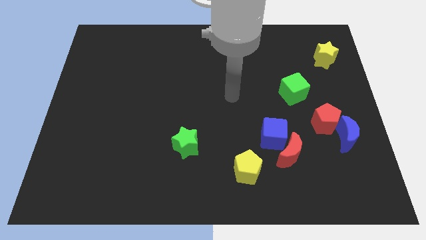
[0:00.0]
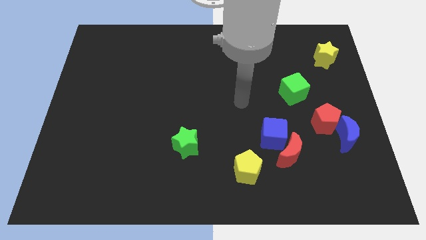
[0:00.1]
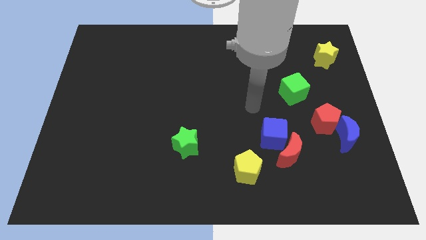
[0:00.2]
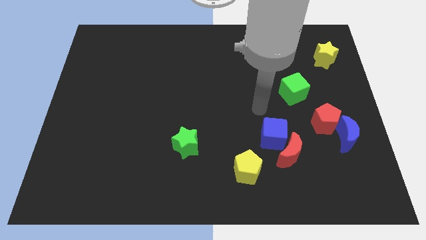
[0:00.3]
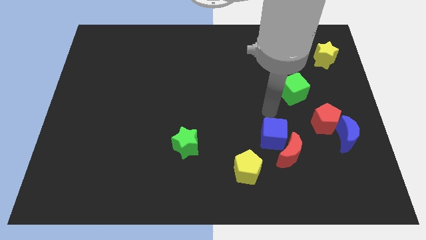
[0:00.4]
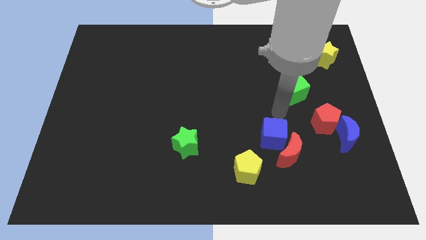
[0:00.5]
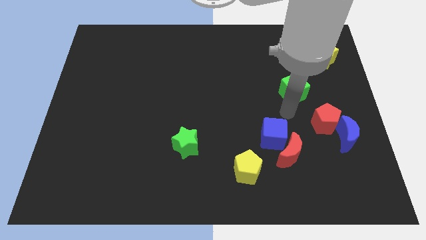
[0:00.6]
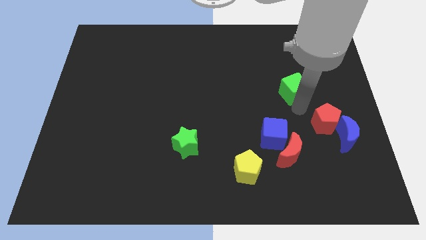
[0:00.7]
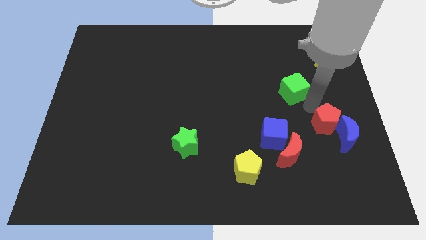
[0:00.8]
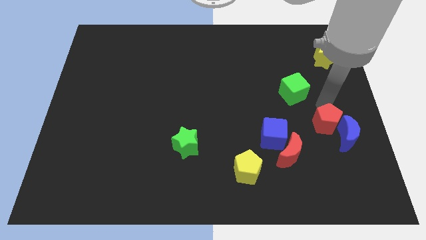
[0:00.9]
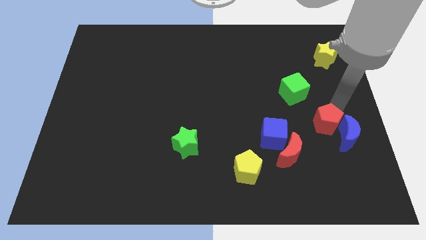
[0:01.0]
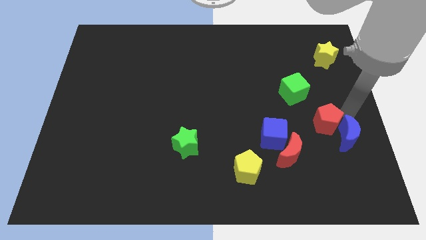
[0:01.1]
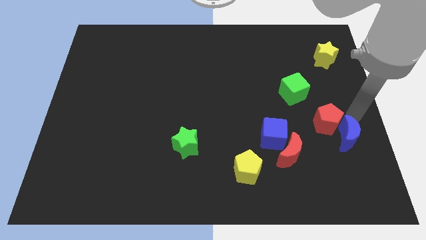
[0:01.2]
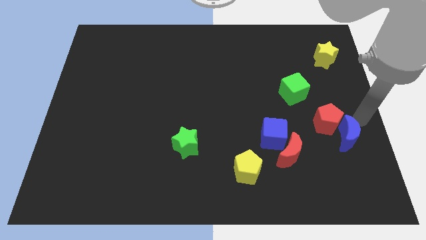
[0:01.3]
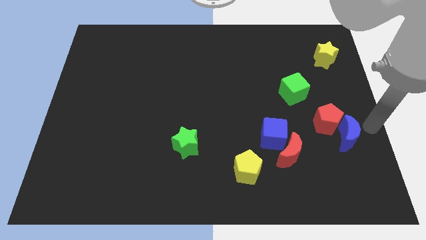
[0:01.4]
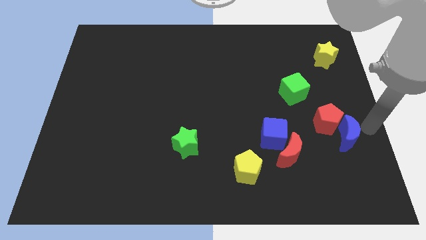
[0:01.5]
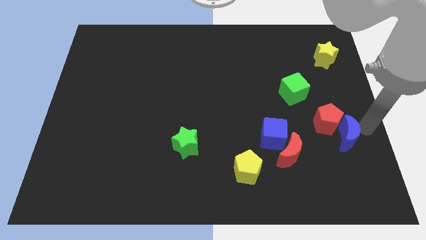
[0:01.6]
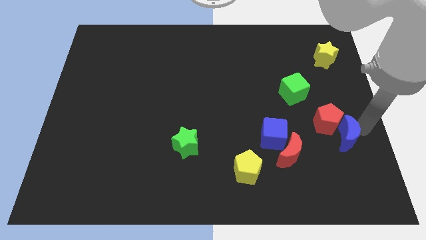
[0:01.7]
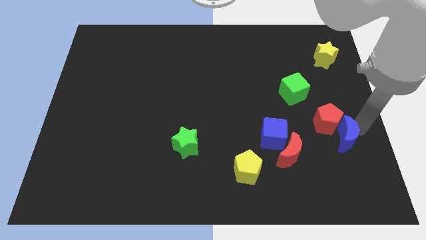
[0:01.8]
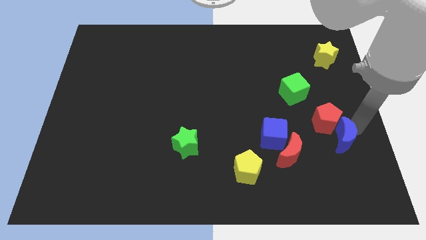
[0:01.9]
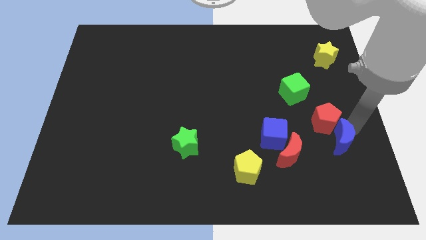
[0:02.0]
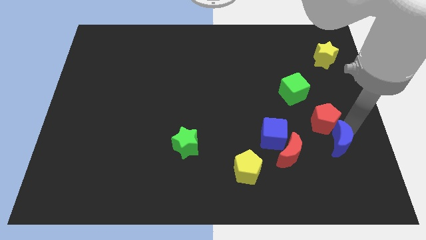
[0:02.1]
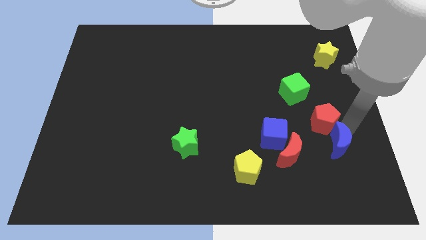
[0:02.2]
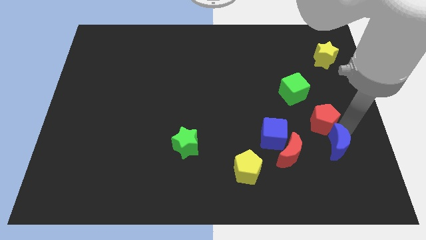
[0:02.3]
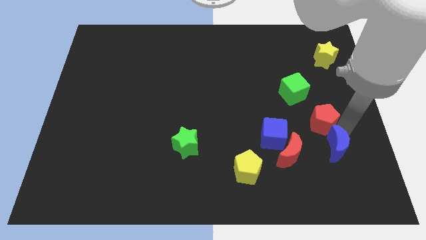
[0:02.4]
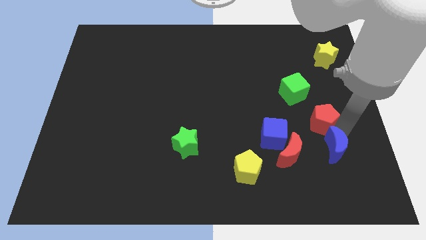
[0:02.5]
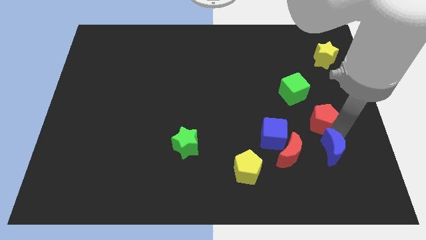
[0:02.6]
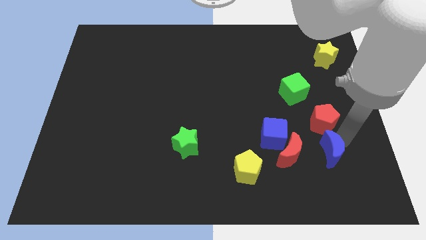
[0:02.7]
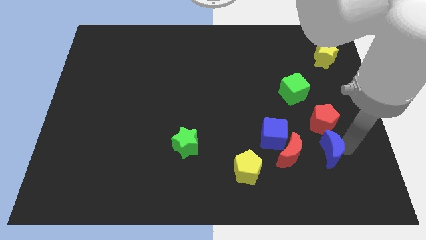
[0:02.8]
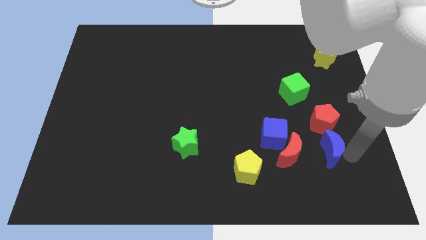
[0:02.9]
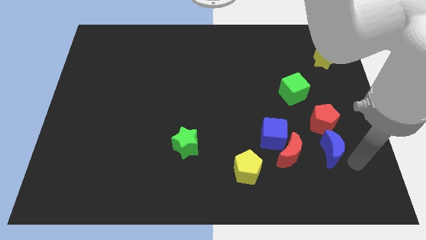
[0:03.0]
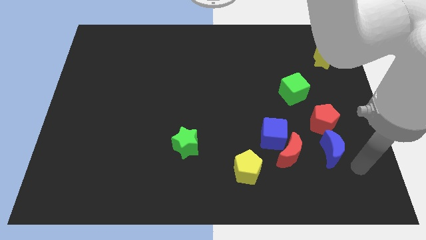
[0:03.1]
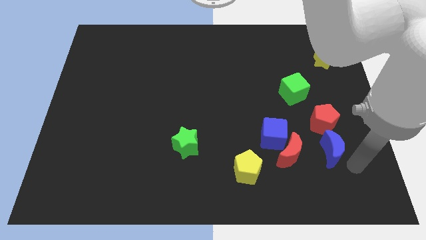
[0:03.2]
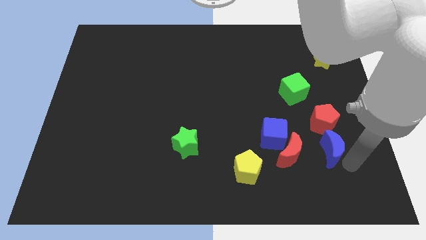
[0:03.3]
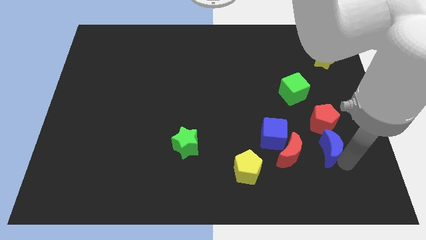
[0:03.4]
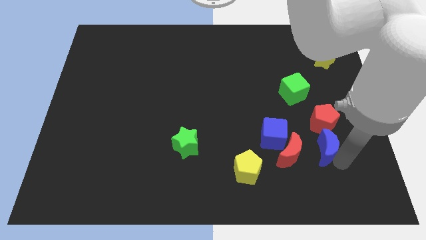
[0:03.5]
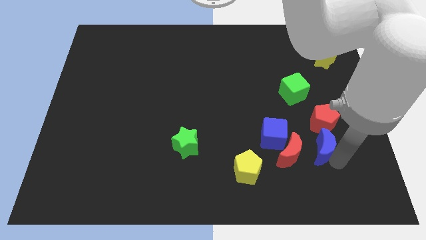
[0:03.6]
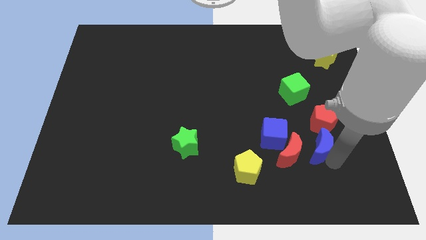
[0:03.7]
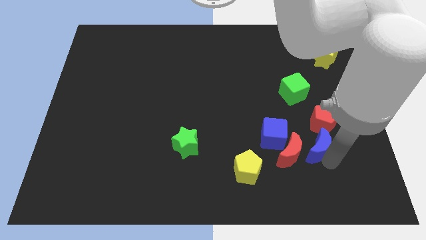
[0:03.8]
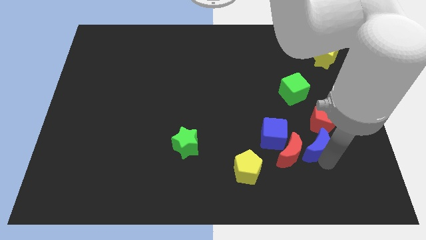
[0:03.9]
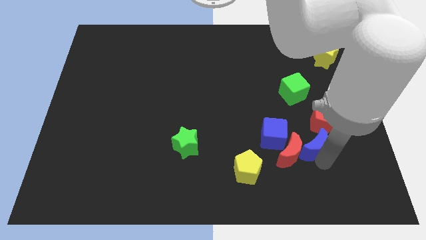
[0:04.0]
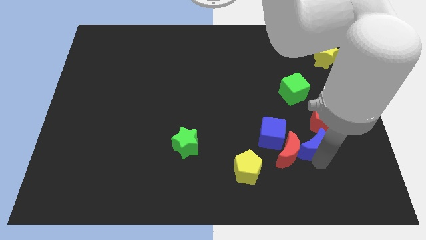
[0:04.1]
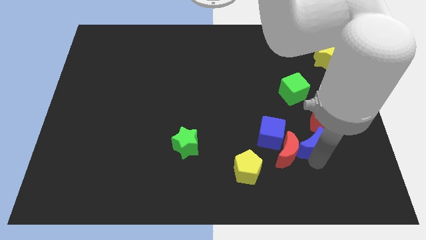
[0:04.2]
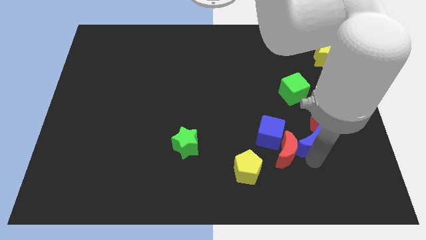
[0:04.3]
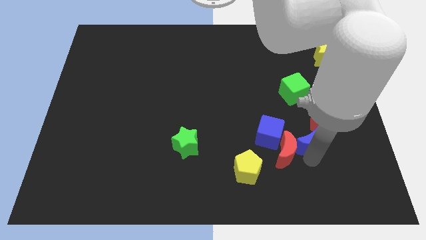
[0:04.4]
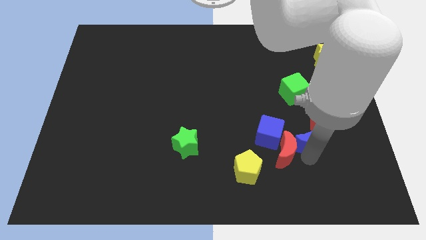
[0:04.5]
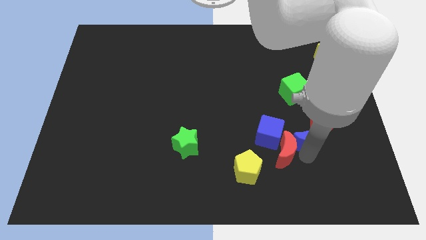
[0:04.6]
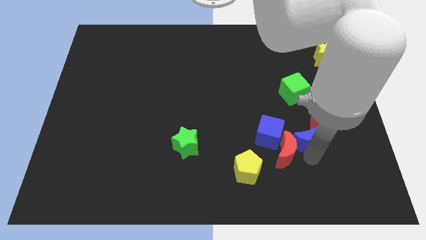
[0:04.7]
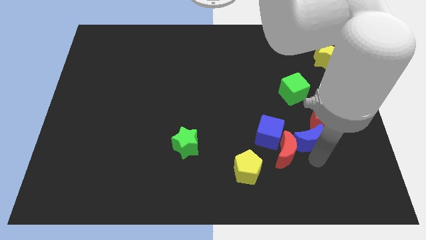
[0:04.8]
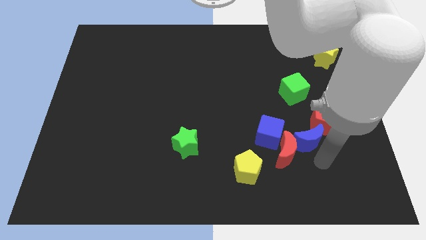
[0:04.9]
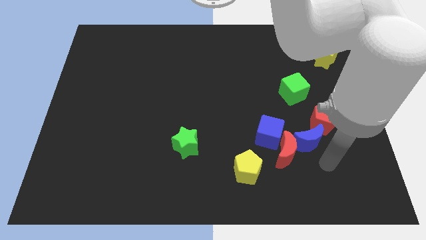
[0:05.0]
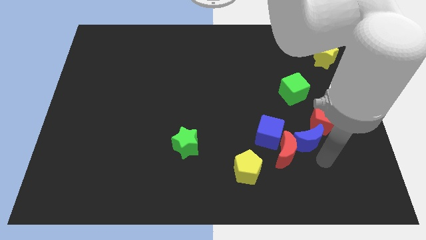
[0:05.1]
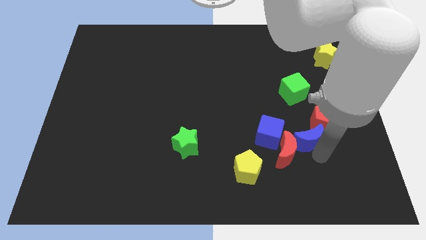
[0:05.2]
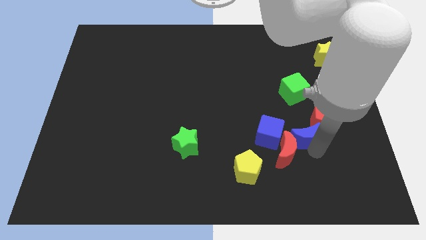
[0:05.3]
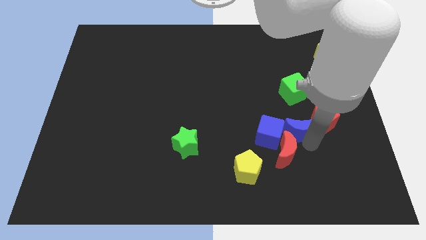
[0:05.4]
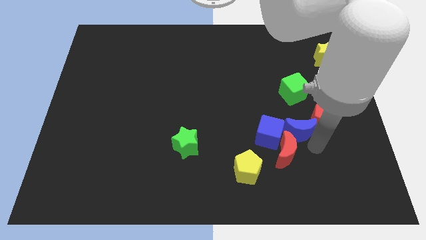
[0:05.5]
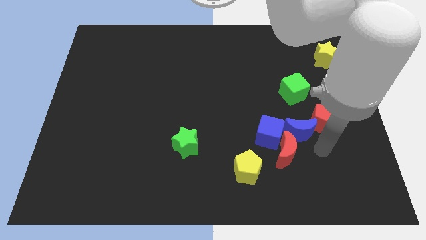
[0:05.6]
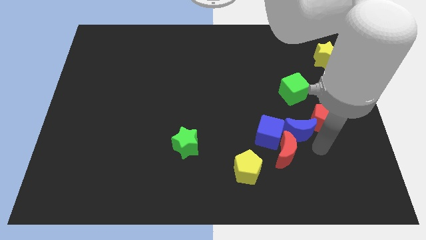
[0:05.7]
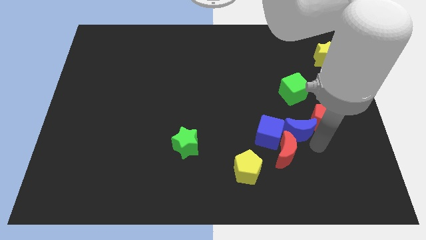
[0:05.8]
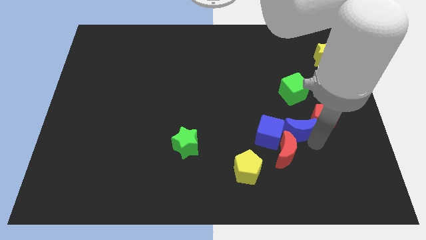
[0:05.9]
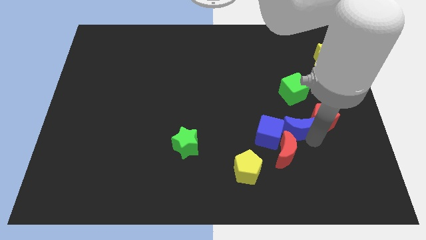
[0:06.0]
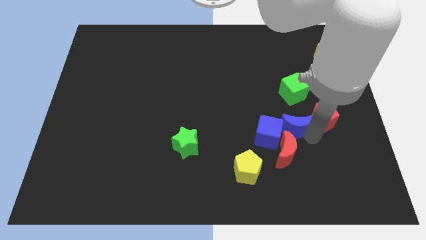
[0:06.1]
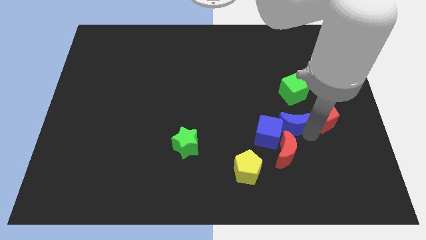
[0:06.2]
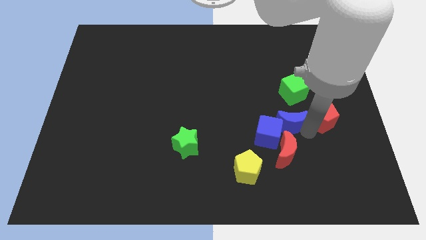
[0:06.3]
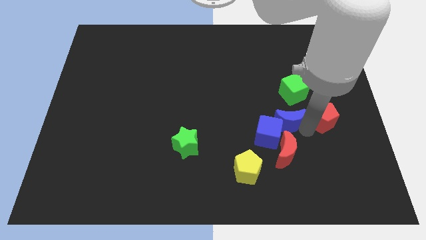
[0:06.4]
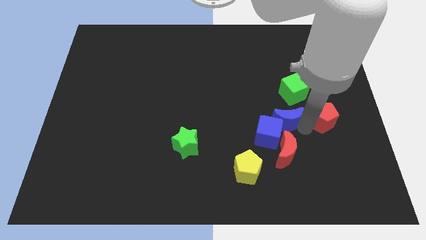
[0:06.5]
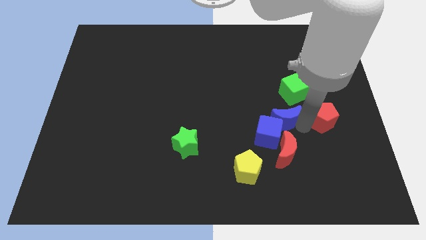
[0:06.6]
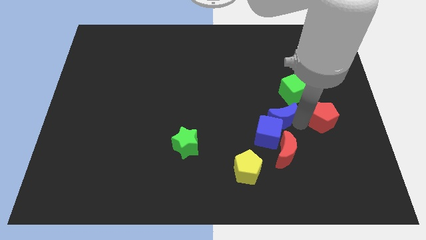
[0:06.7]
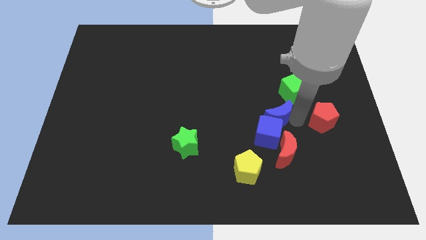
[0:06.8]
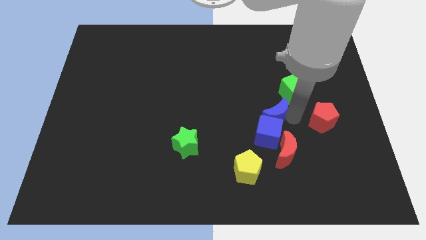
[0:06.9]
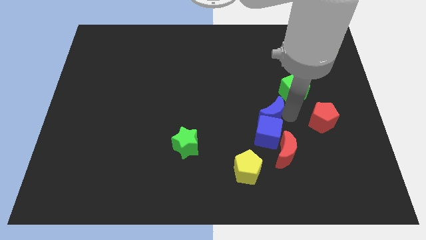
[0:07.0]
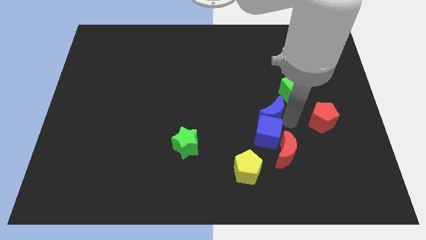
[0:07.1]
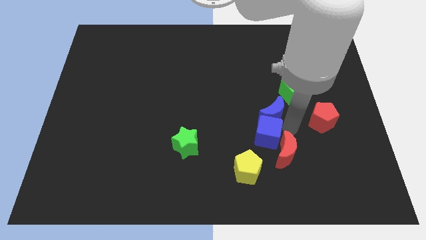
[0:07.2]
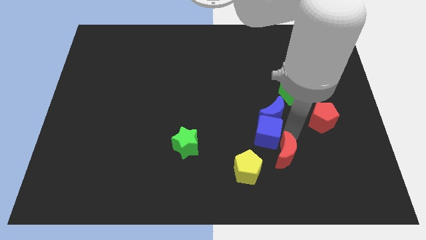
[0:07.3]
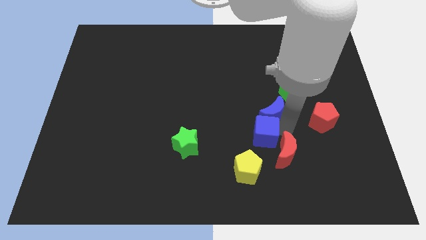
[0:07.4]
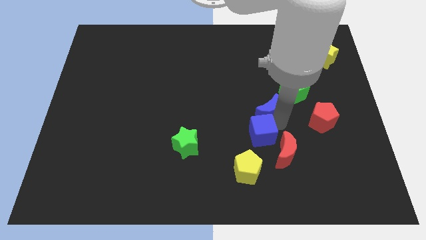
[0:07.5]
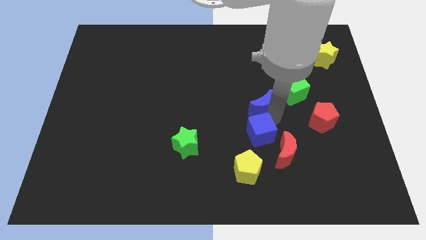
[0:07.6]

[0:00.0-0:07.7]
put the blue moon left of the green cube
